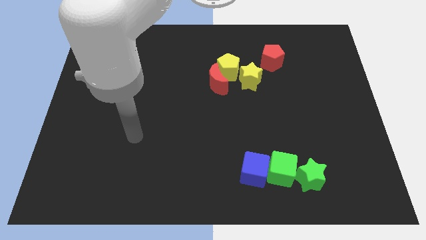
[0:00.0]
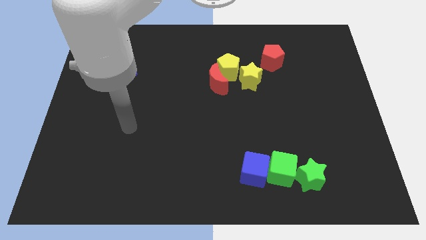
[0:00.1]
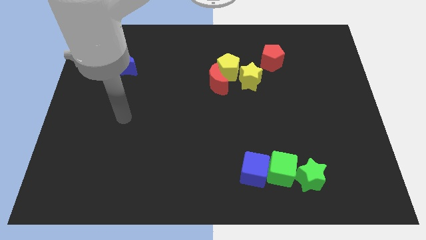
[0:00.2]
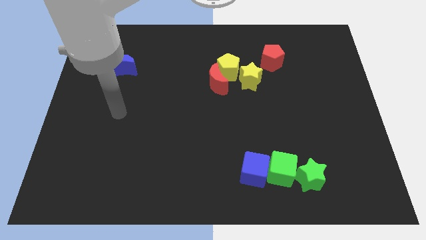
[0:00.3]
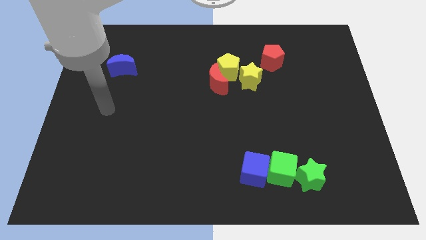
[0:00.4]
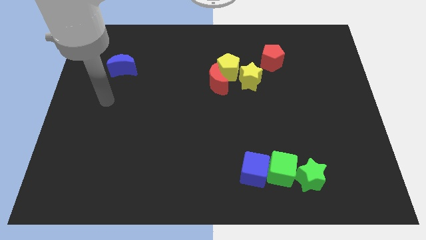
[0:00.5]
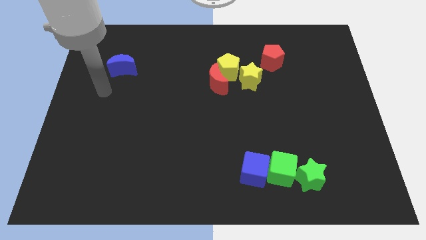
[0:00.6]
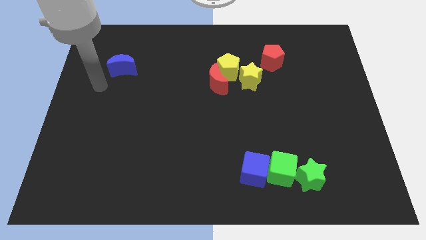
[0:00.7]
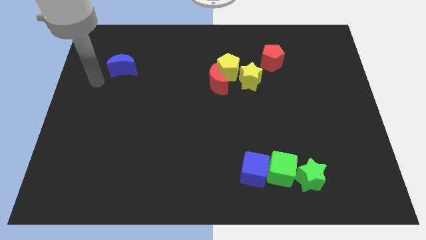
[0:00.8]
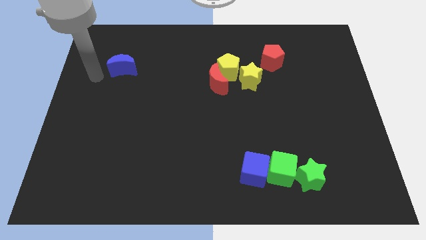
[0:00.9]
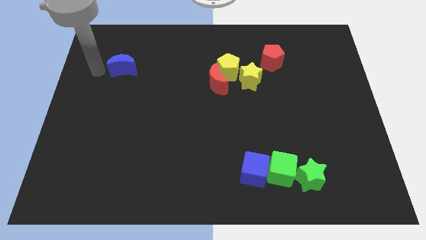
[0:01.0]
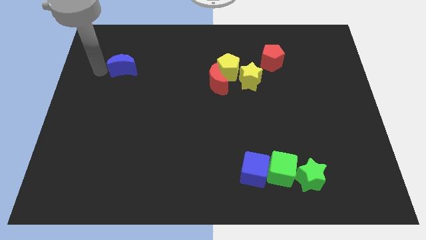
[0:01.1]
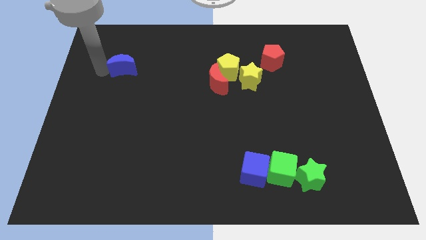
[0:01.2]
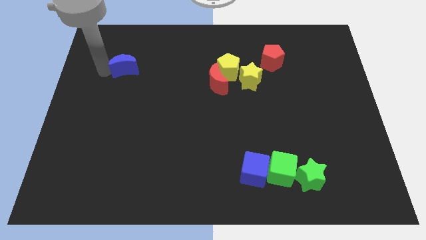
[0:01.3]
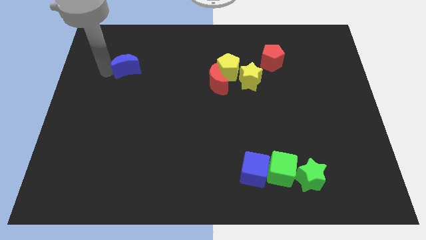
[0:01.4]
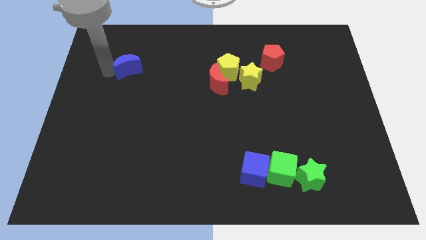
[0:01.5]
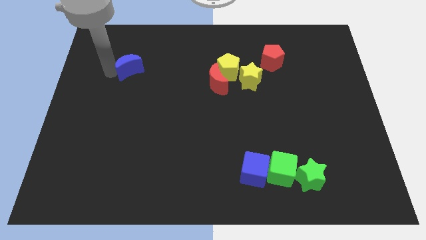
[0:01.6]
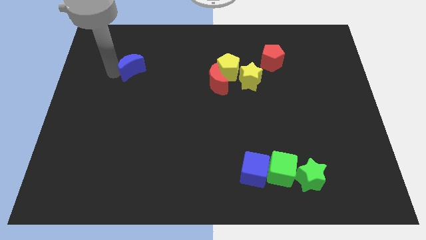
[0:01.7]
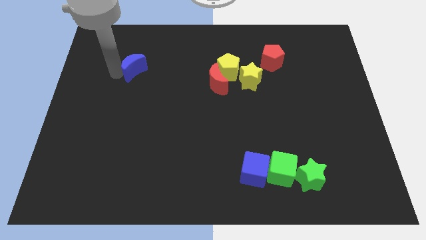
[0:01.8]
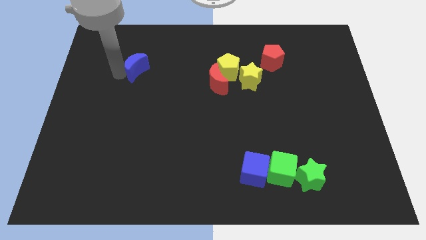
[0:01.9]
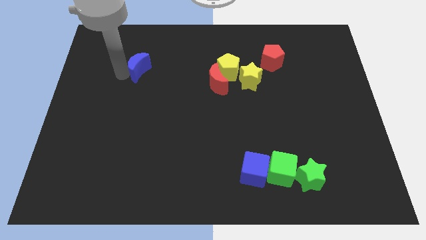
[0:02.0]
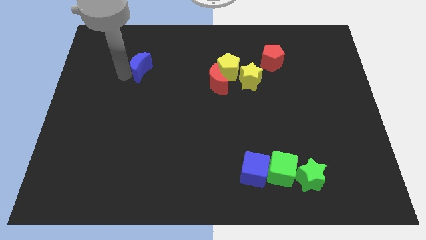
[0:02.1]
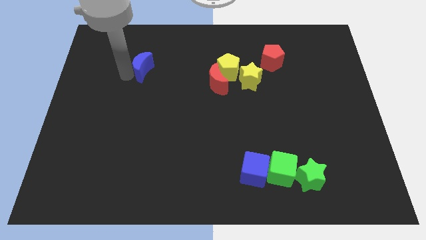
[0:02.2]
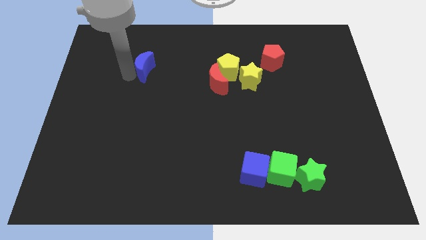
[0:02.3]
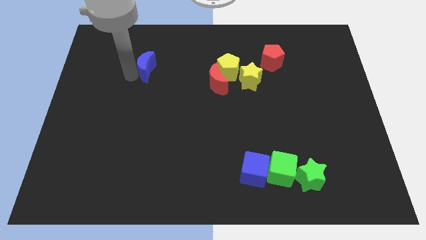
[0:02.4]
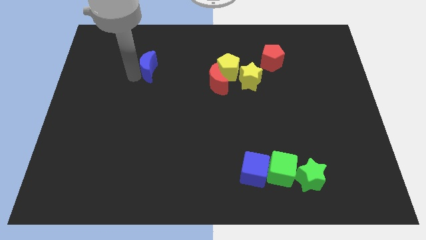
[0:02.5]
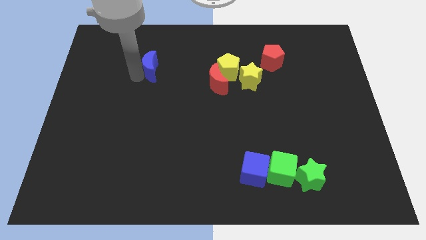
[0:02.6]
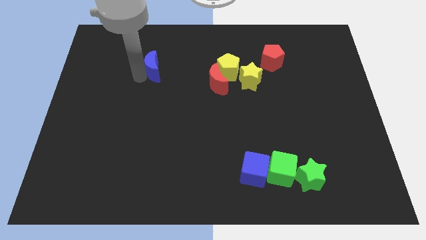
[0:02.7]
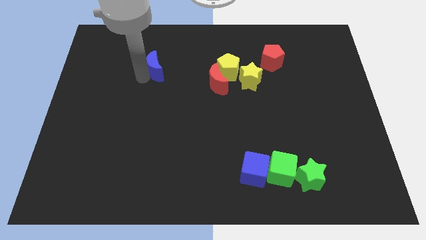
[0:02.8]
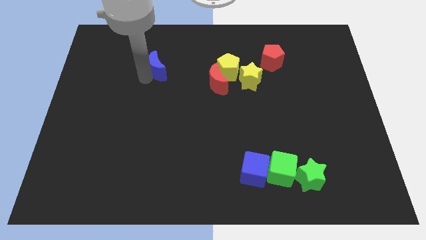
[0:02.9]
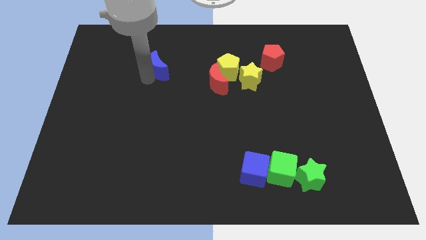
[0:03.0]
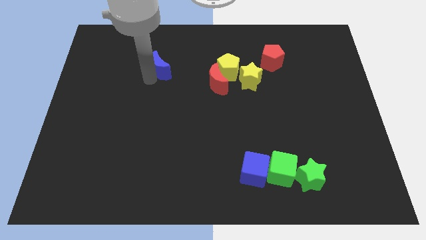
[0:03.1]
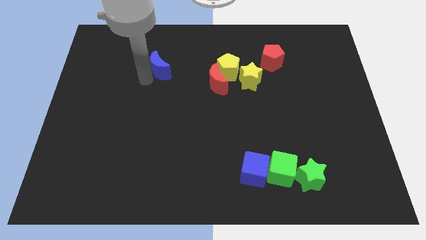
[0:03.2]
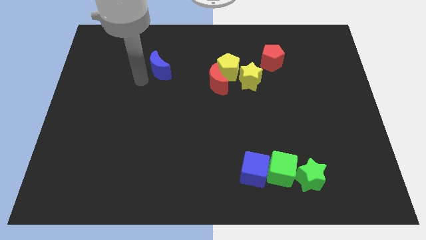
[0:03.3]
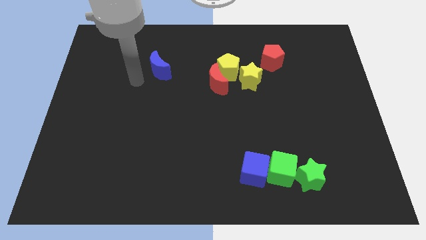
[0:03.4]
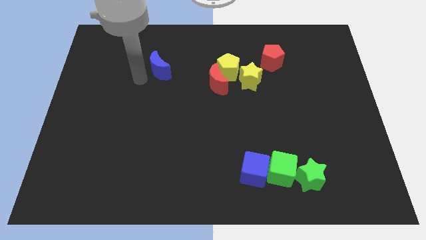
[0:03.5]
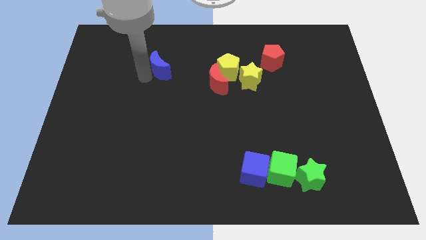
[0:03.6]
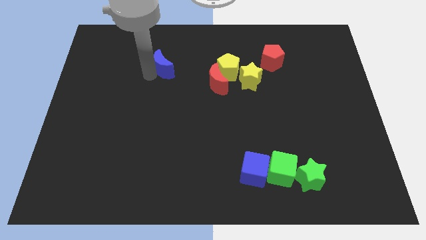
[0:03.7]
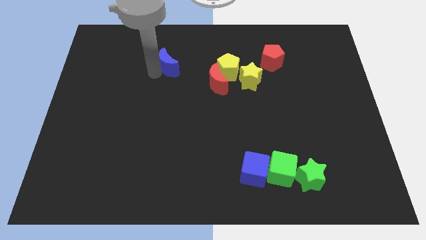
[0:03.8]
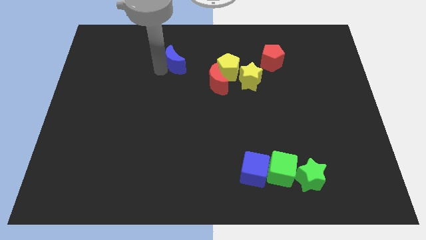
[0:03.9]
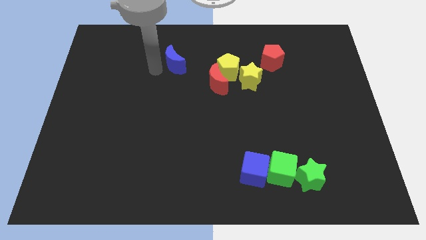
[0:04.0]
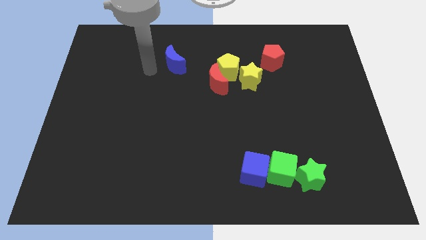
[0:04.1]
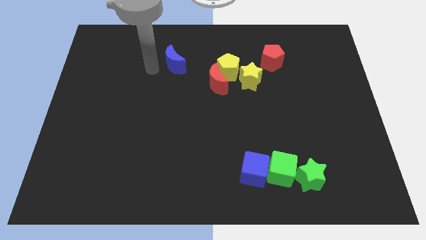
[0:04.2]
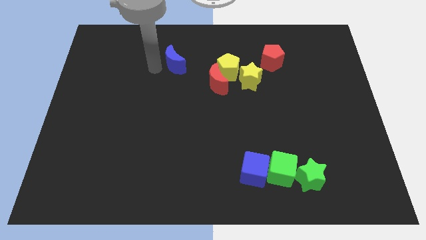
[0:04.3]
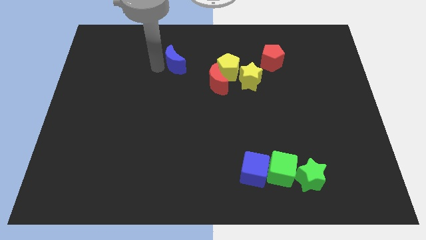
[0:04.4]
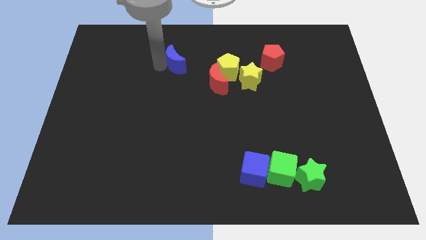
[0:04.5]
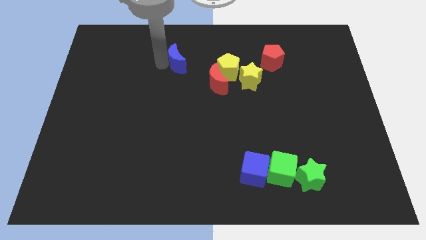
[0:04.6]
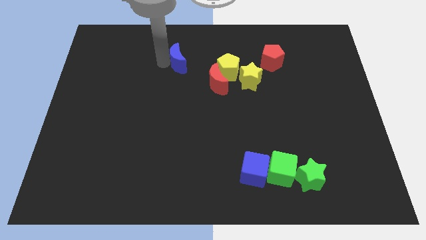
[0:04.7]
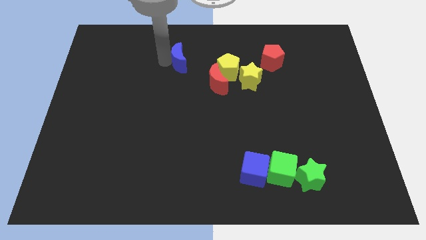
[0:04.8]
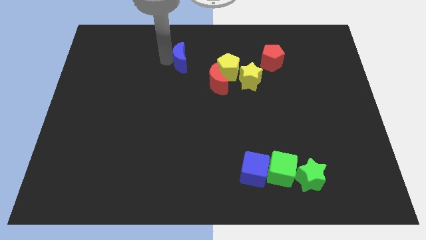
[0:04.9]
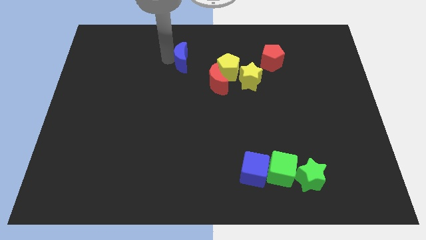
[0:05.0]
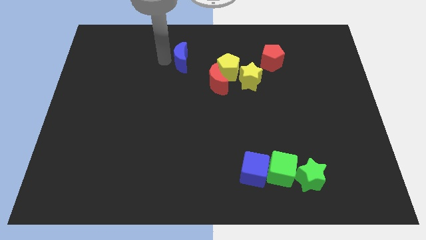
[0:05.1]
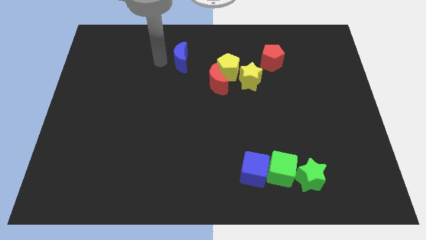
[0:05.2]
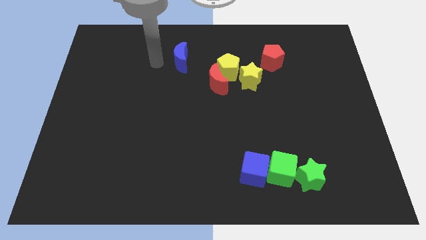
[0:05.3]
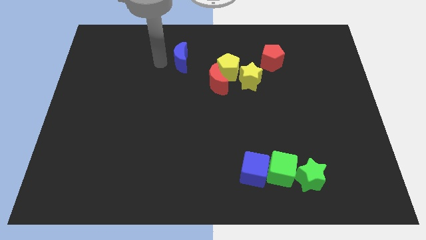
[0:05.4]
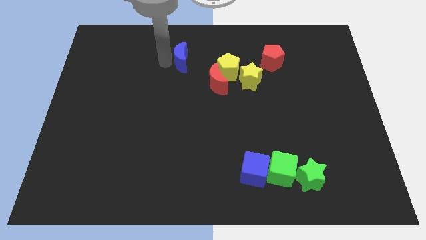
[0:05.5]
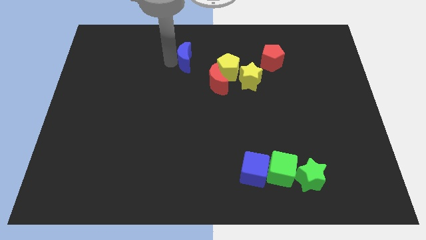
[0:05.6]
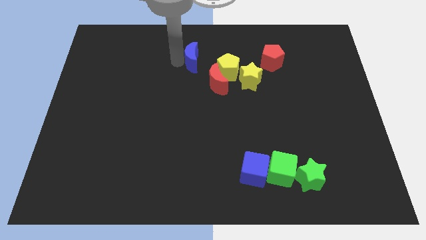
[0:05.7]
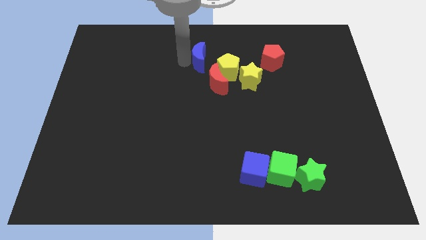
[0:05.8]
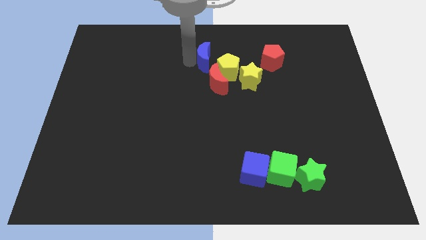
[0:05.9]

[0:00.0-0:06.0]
slide the blue moon to the right

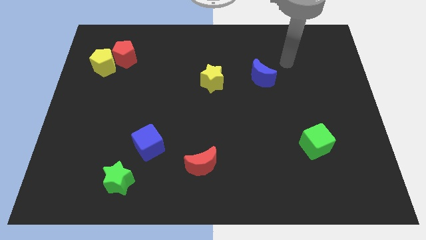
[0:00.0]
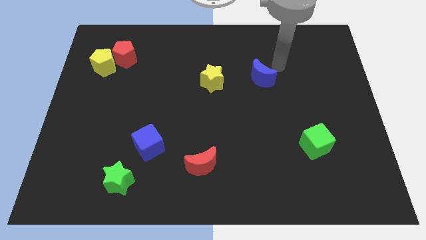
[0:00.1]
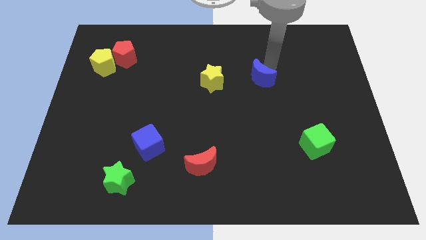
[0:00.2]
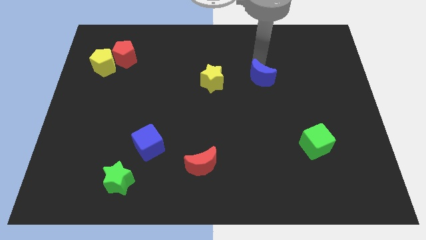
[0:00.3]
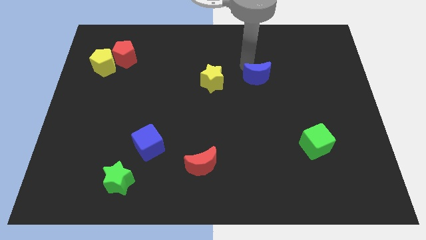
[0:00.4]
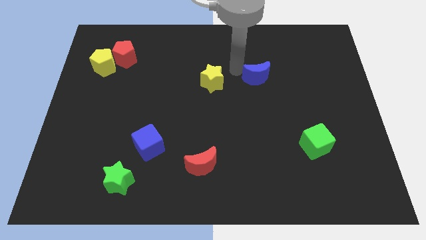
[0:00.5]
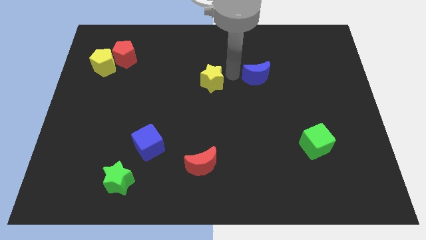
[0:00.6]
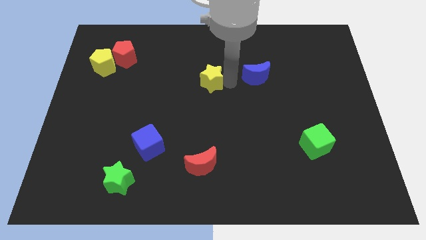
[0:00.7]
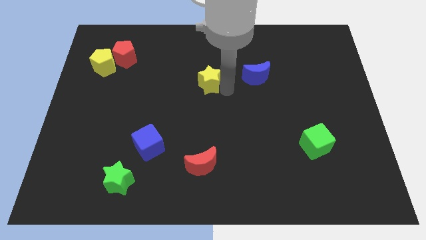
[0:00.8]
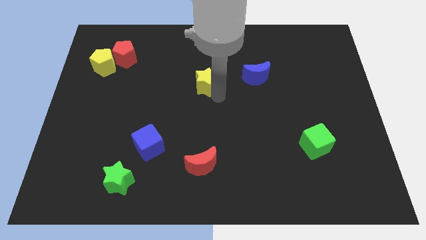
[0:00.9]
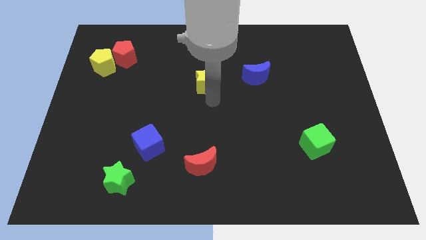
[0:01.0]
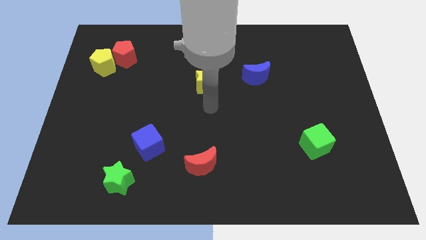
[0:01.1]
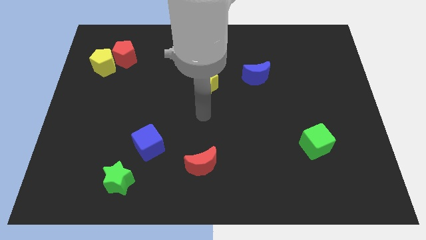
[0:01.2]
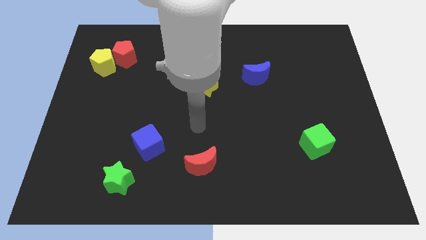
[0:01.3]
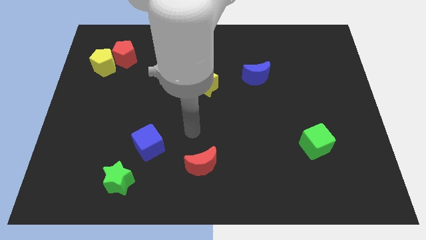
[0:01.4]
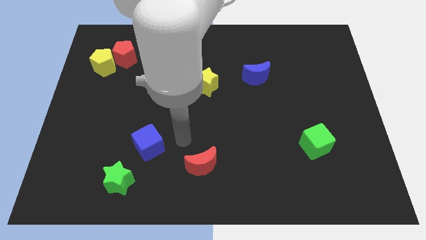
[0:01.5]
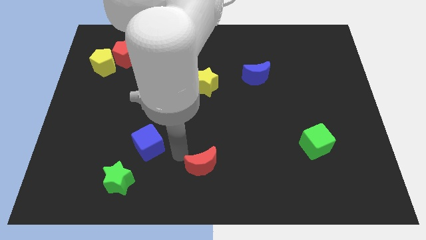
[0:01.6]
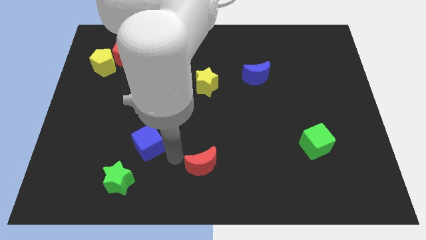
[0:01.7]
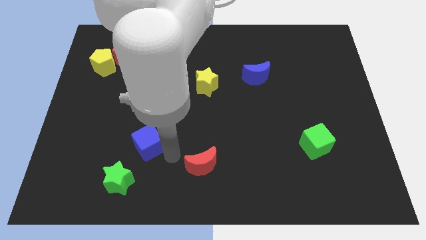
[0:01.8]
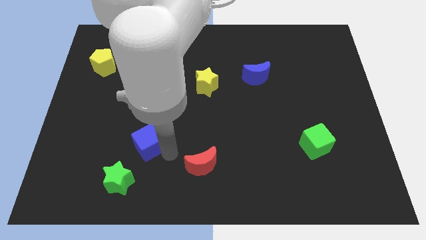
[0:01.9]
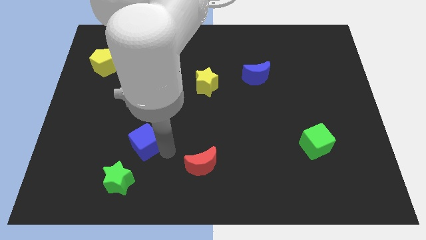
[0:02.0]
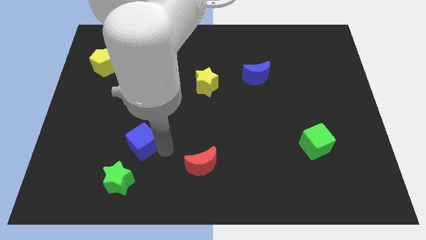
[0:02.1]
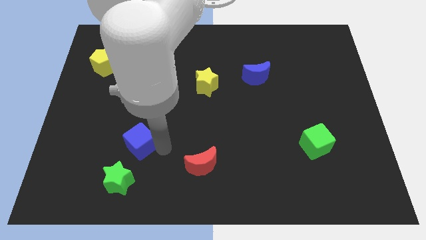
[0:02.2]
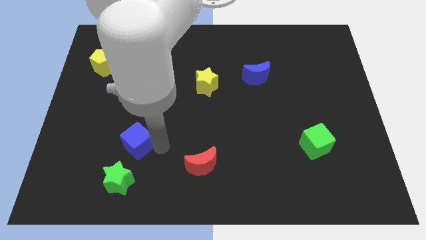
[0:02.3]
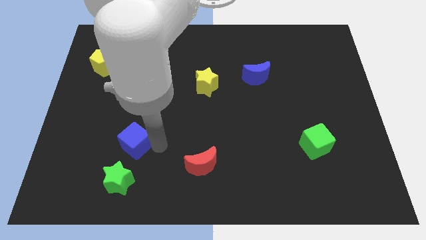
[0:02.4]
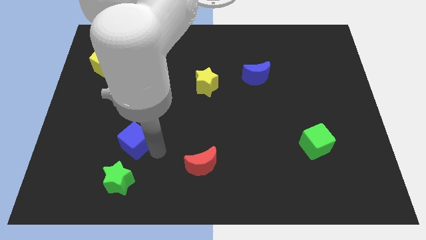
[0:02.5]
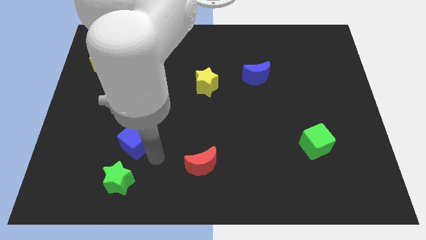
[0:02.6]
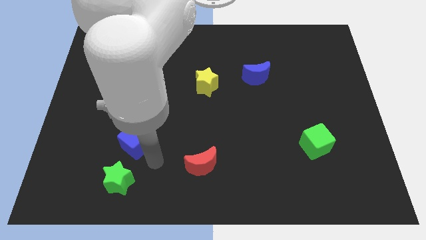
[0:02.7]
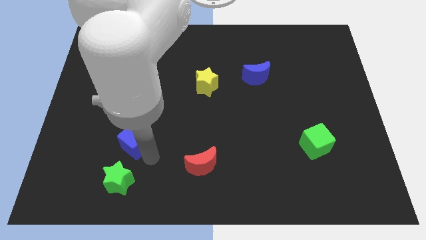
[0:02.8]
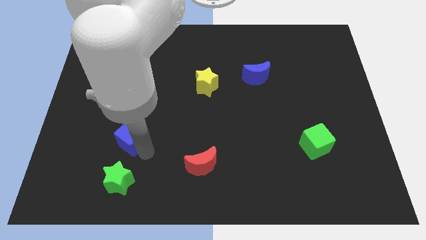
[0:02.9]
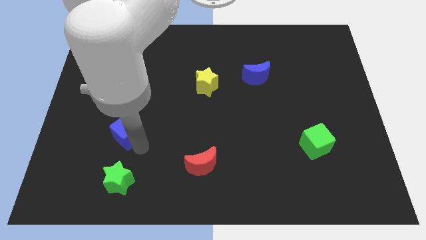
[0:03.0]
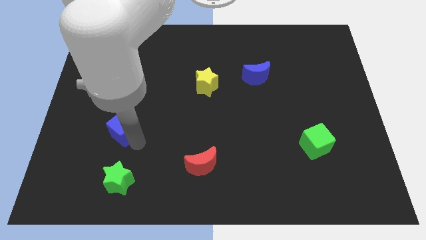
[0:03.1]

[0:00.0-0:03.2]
push the blue cube a bit up and then left
